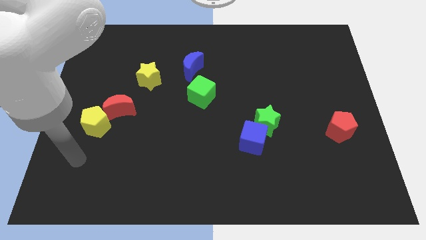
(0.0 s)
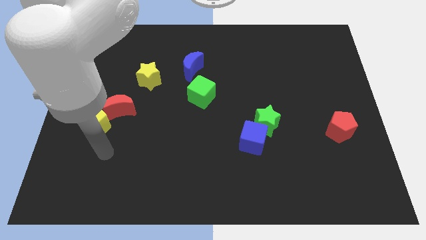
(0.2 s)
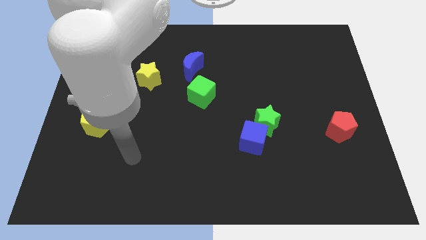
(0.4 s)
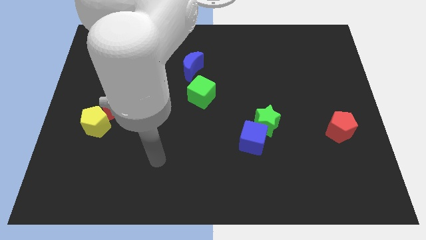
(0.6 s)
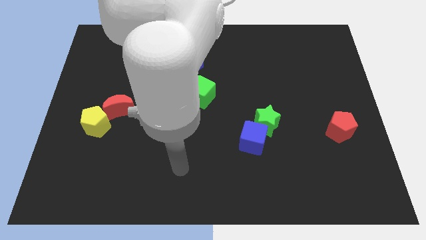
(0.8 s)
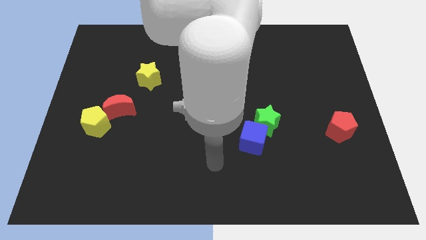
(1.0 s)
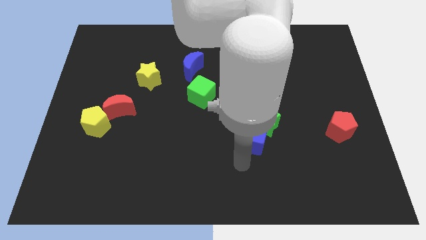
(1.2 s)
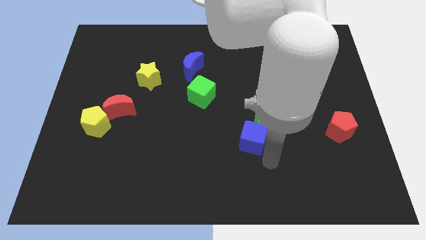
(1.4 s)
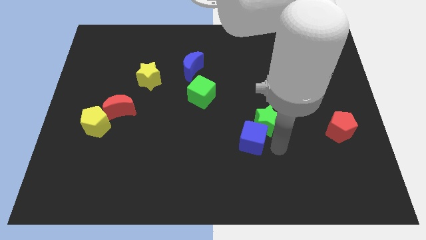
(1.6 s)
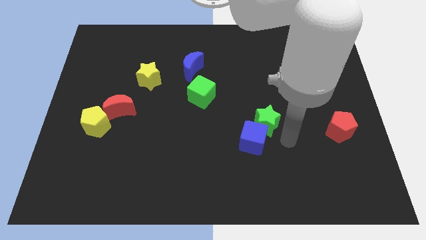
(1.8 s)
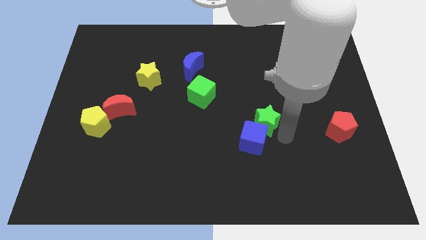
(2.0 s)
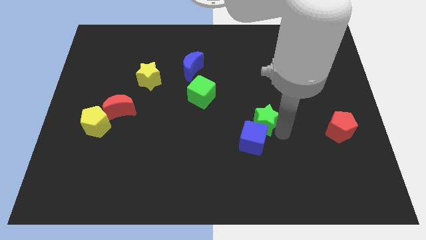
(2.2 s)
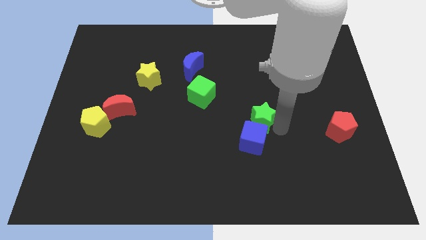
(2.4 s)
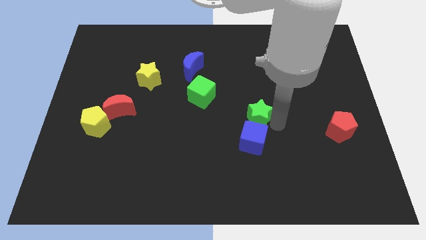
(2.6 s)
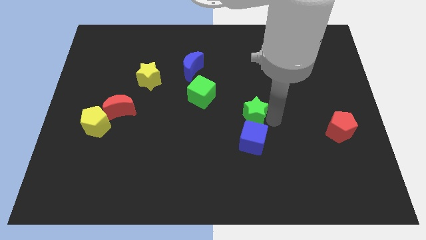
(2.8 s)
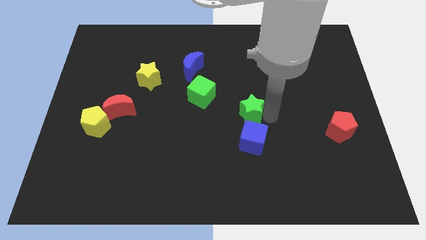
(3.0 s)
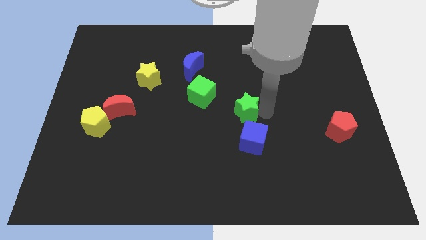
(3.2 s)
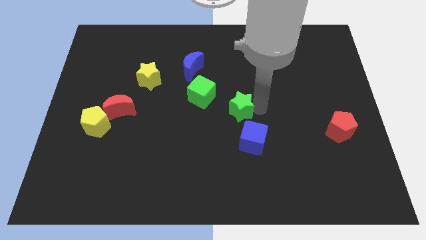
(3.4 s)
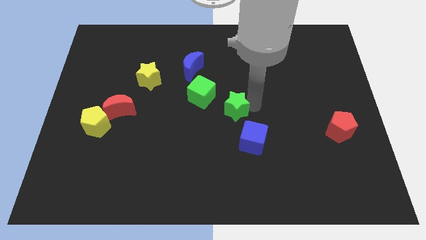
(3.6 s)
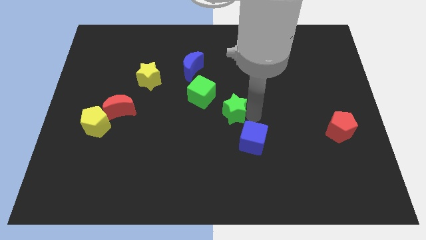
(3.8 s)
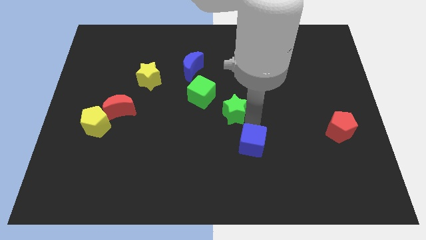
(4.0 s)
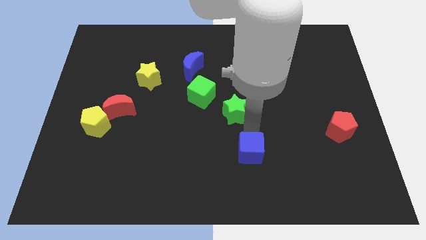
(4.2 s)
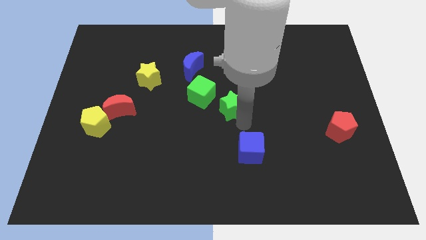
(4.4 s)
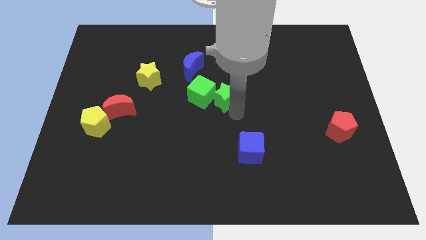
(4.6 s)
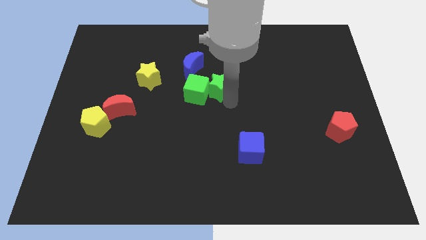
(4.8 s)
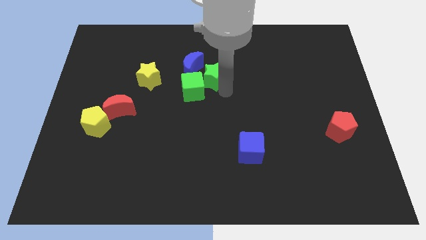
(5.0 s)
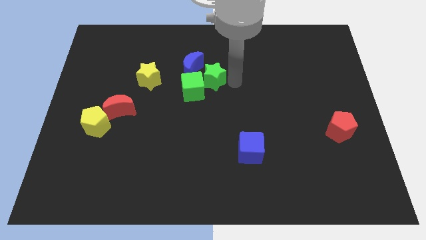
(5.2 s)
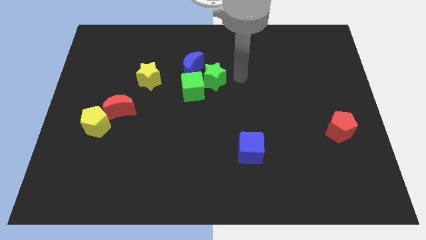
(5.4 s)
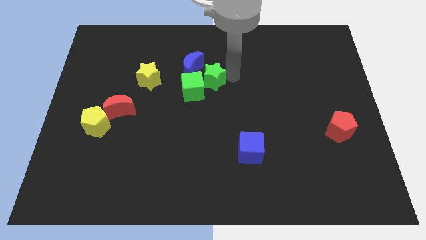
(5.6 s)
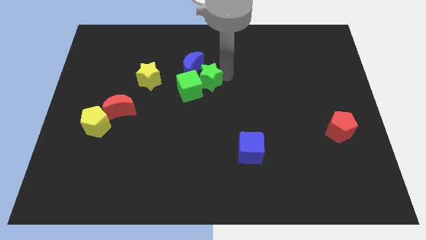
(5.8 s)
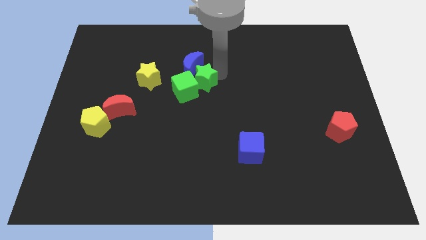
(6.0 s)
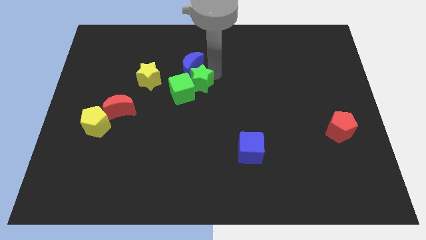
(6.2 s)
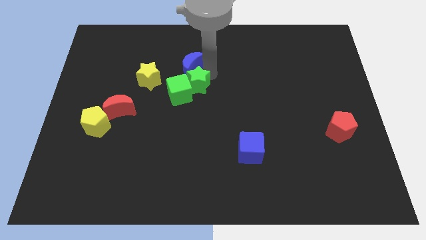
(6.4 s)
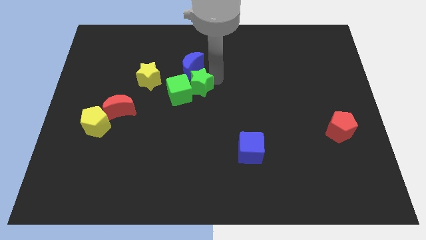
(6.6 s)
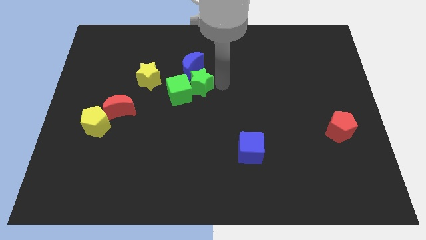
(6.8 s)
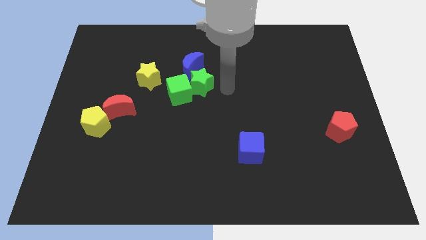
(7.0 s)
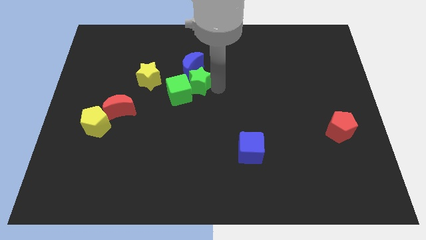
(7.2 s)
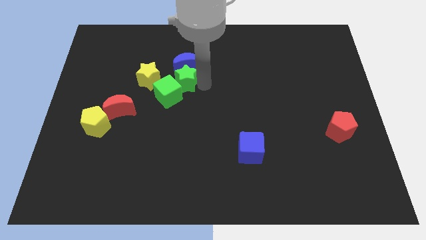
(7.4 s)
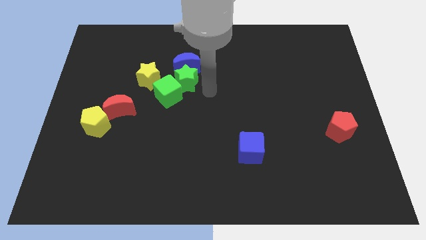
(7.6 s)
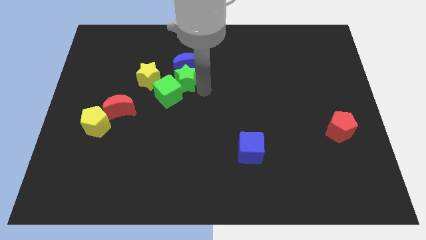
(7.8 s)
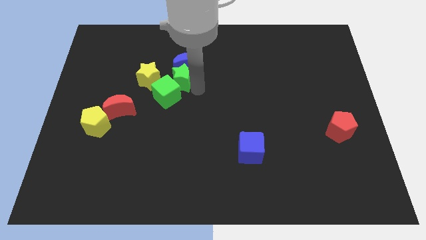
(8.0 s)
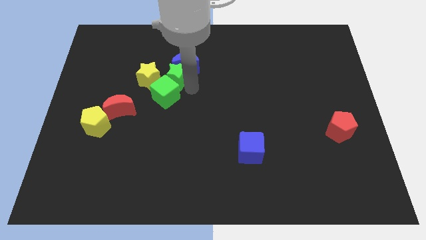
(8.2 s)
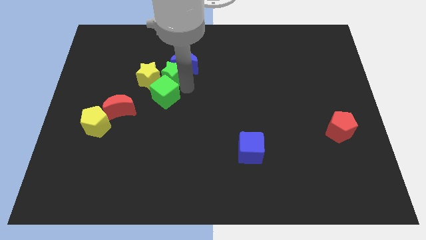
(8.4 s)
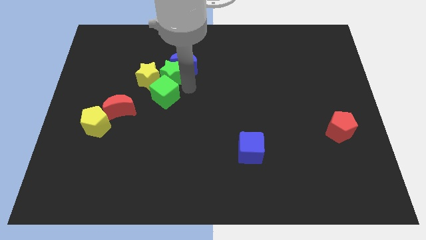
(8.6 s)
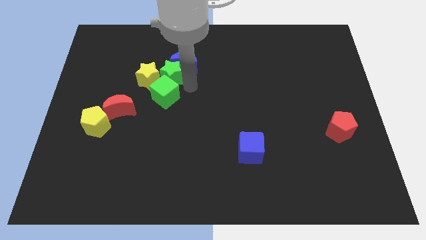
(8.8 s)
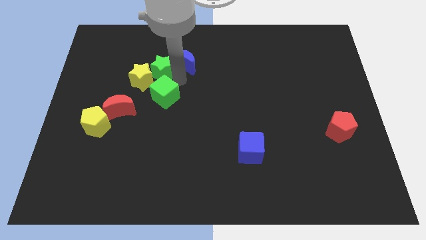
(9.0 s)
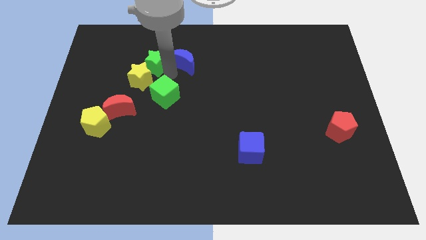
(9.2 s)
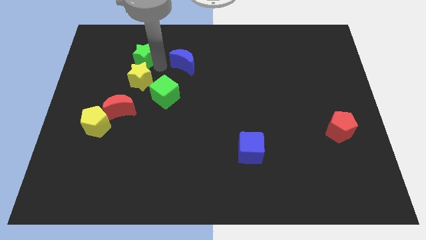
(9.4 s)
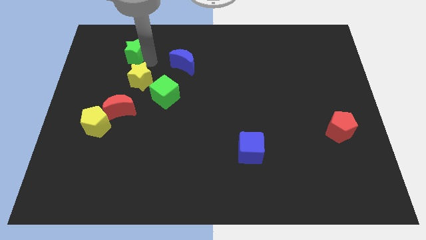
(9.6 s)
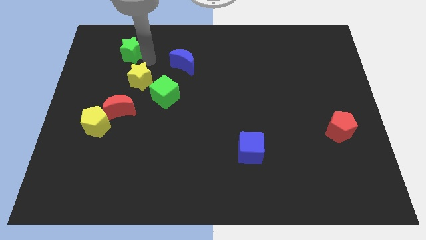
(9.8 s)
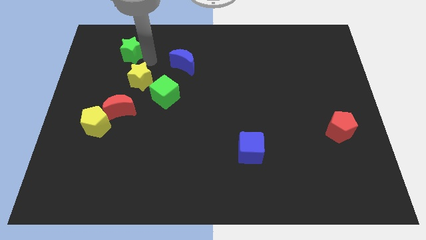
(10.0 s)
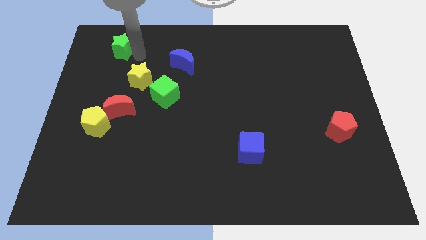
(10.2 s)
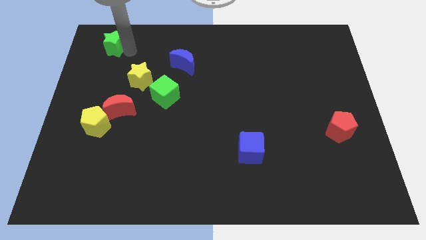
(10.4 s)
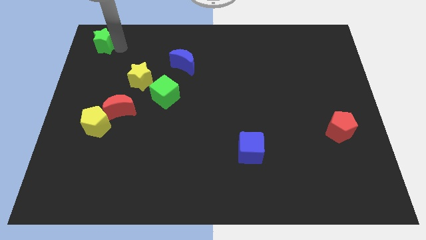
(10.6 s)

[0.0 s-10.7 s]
slide the green star to the top left corner
